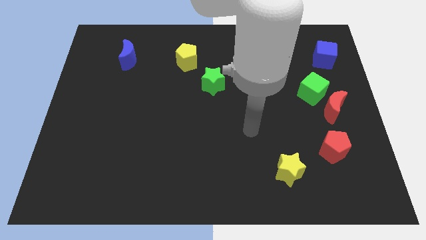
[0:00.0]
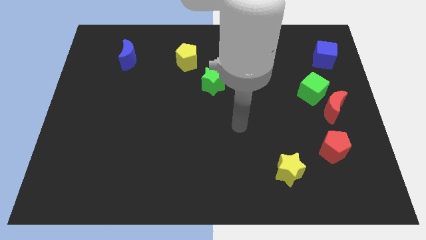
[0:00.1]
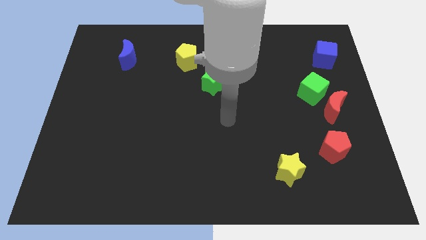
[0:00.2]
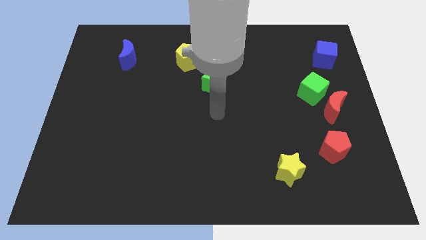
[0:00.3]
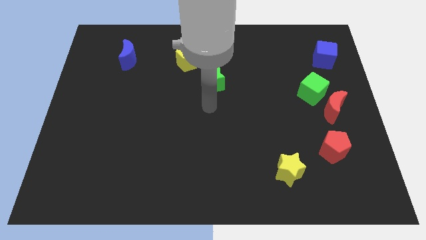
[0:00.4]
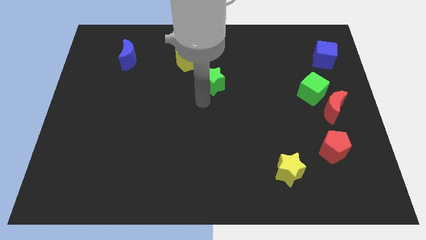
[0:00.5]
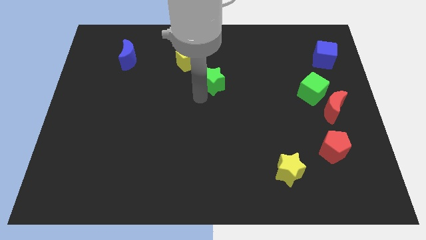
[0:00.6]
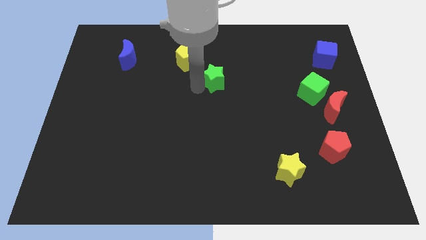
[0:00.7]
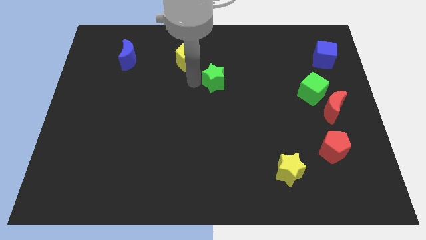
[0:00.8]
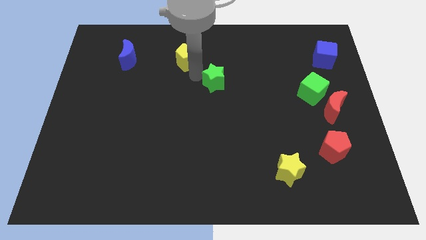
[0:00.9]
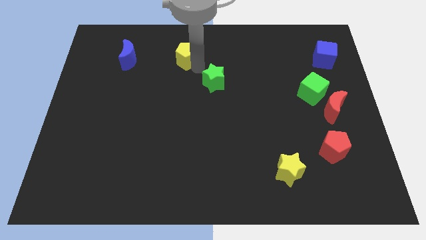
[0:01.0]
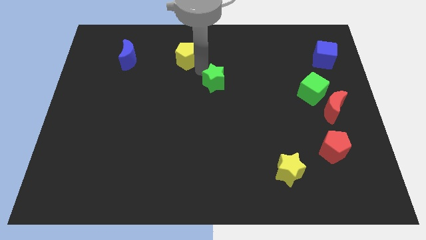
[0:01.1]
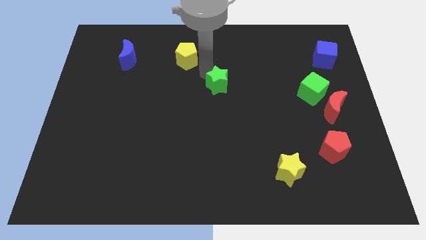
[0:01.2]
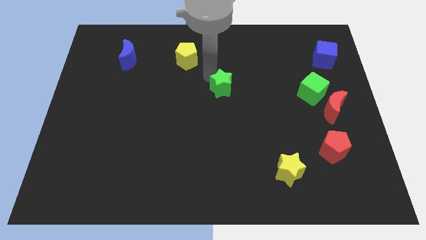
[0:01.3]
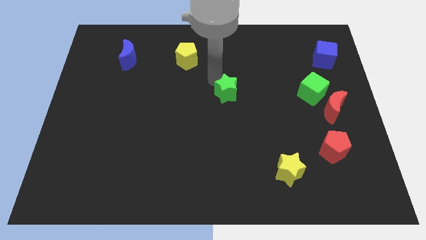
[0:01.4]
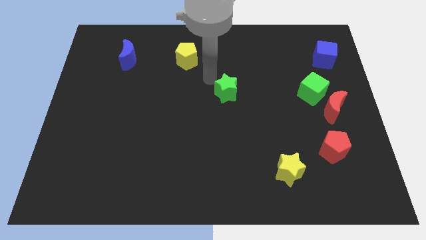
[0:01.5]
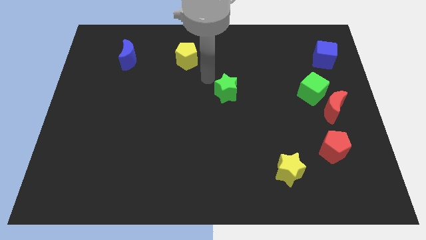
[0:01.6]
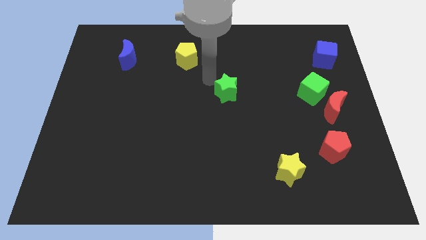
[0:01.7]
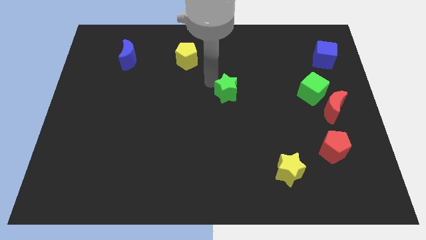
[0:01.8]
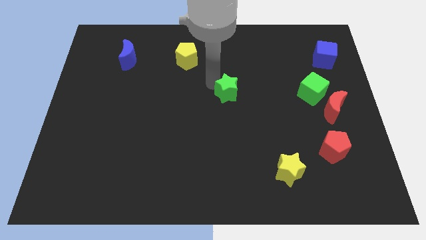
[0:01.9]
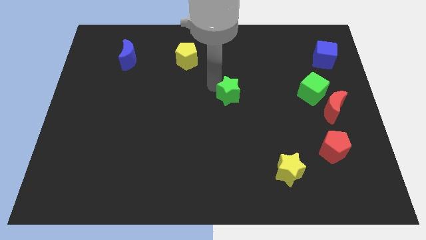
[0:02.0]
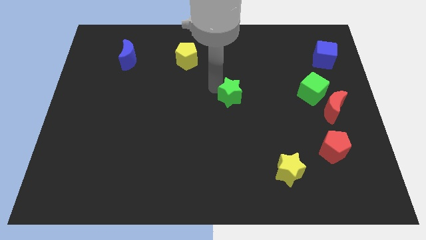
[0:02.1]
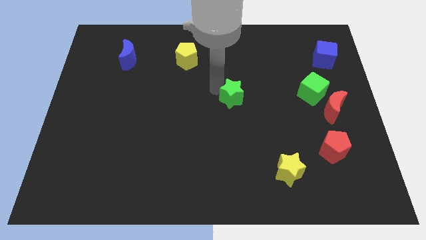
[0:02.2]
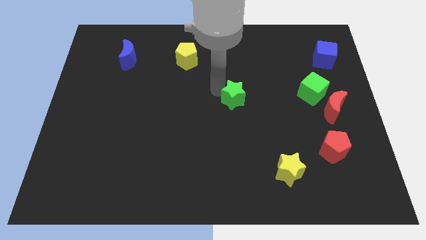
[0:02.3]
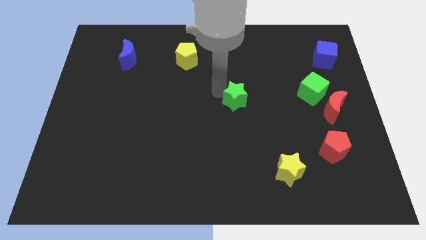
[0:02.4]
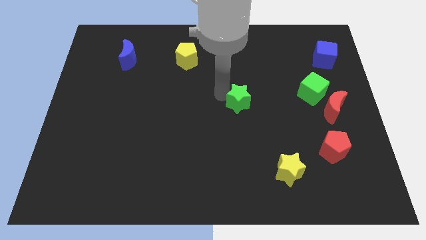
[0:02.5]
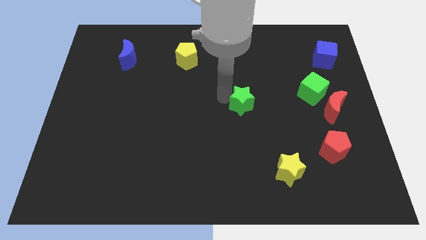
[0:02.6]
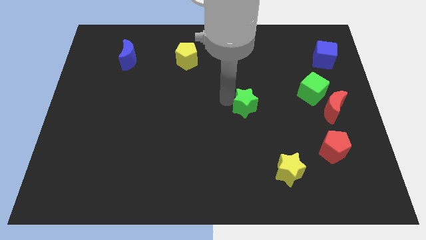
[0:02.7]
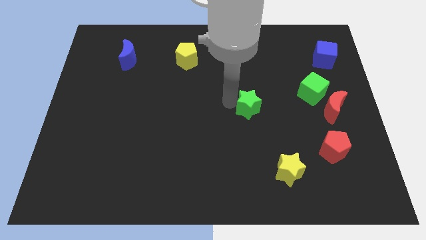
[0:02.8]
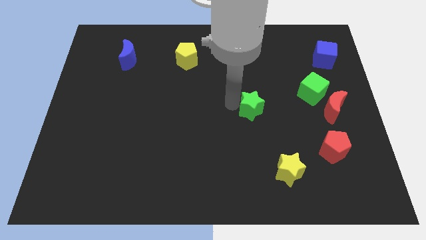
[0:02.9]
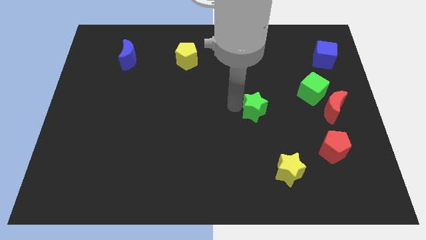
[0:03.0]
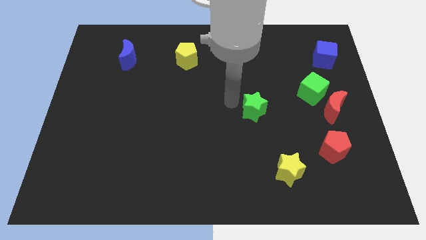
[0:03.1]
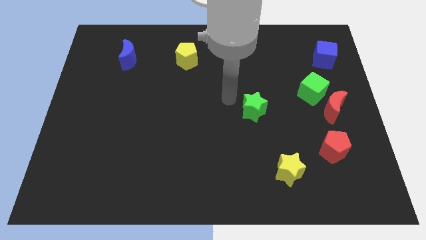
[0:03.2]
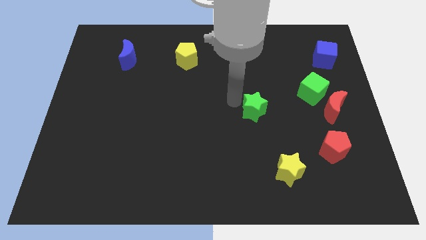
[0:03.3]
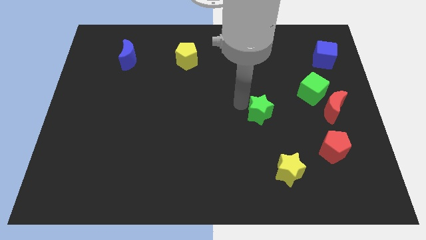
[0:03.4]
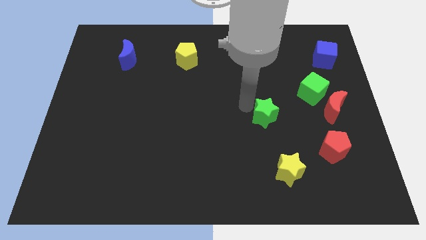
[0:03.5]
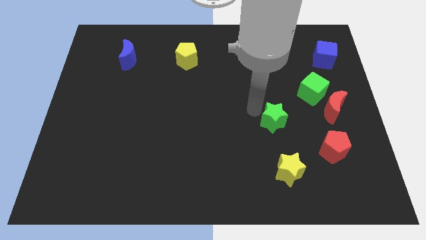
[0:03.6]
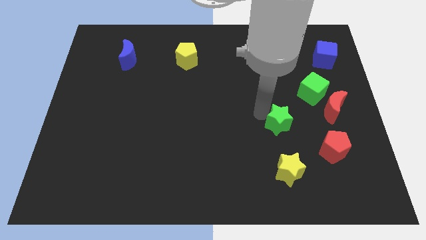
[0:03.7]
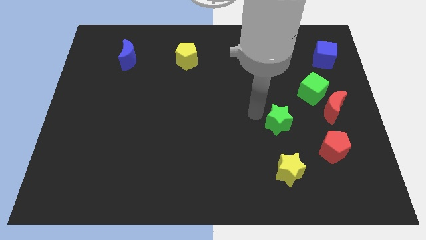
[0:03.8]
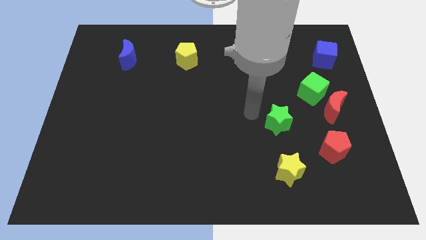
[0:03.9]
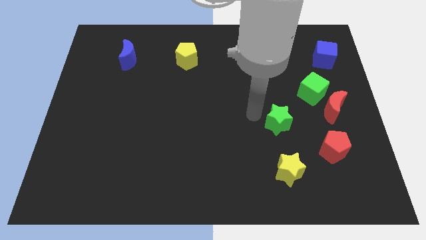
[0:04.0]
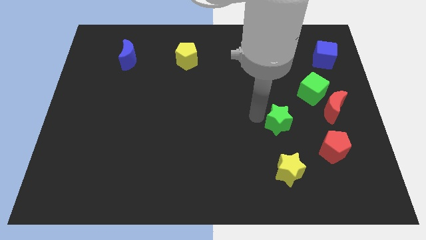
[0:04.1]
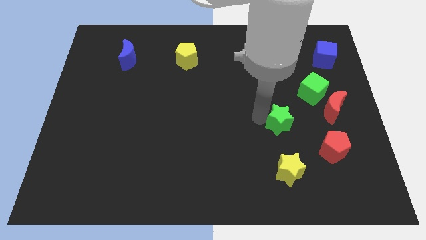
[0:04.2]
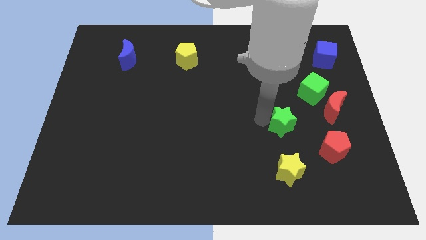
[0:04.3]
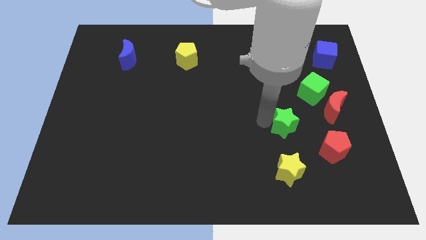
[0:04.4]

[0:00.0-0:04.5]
slide the green star down and right diagonally

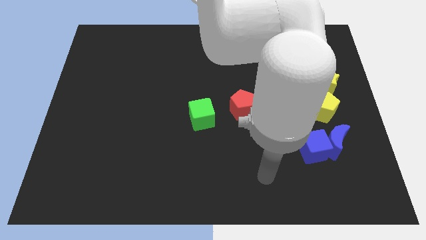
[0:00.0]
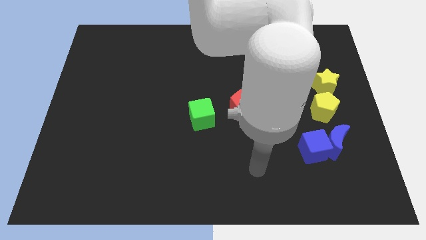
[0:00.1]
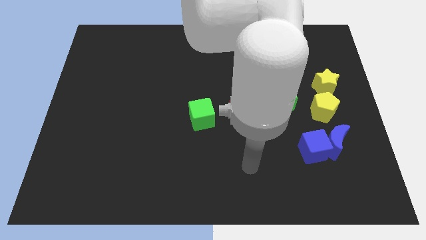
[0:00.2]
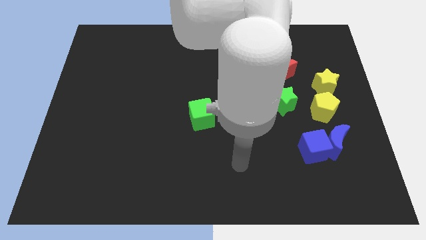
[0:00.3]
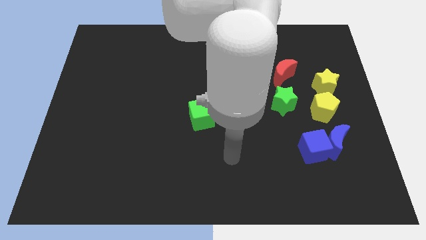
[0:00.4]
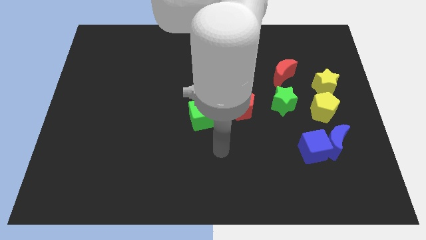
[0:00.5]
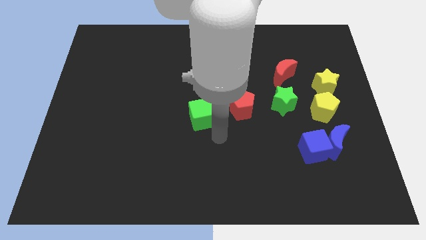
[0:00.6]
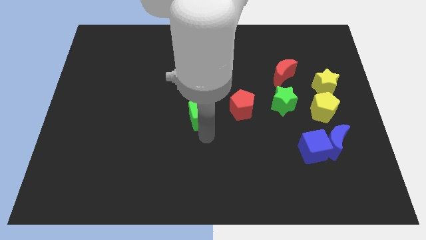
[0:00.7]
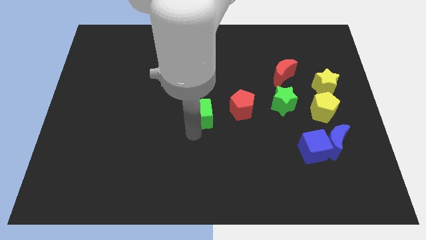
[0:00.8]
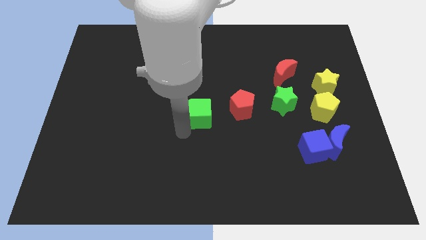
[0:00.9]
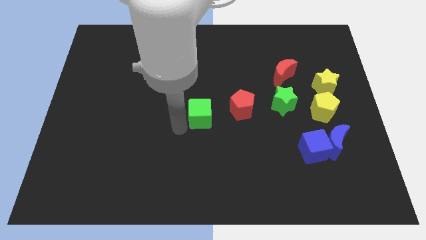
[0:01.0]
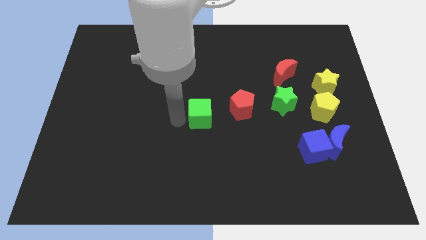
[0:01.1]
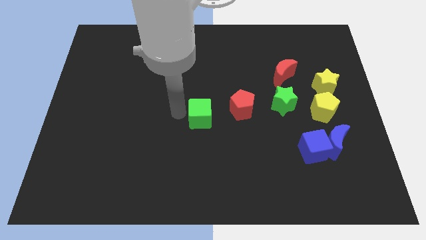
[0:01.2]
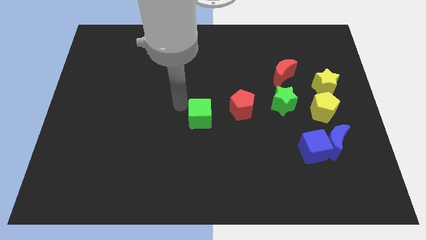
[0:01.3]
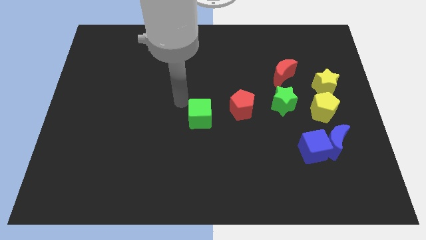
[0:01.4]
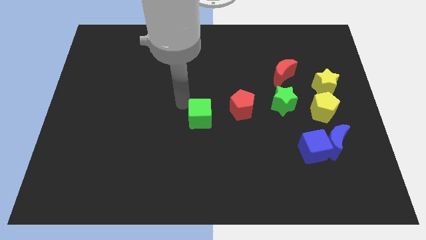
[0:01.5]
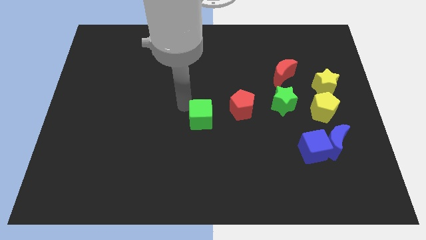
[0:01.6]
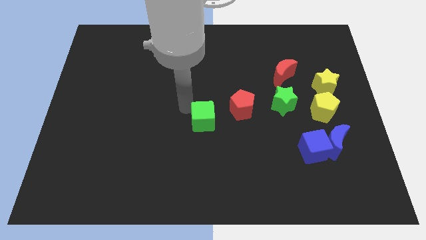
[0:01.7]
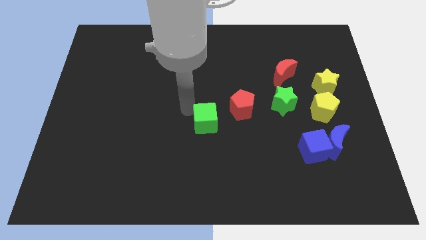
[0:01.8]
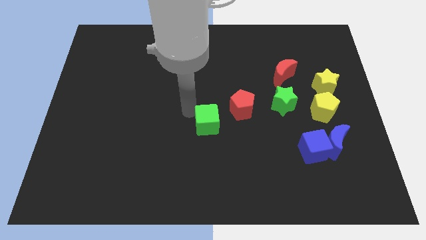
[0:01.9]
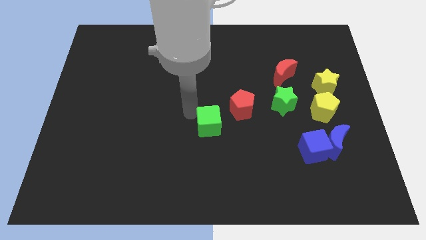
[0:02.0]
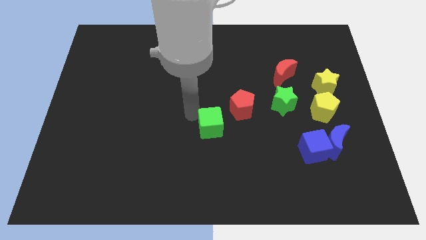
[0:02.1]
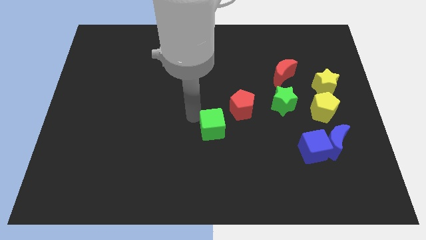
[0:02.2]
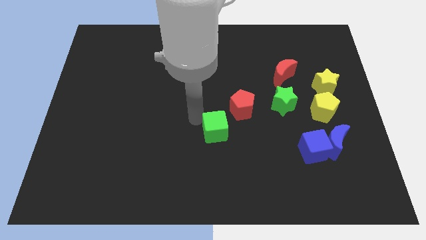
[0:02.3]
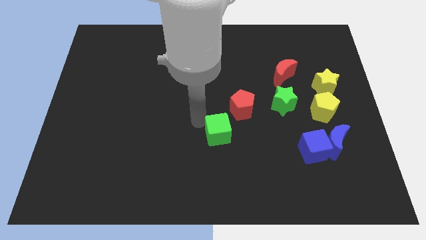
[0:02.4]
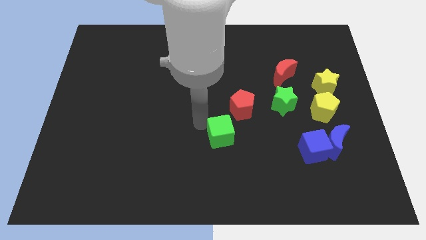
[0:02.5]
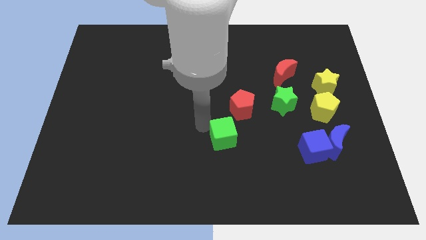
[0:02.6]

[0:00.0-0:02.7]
slide the green cube down and right diagonally a little bit

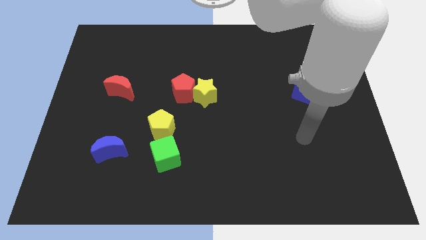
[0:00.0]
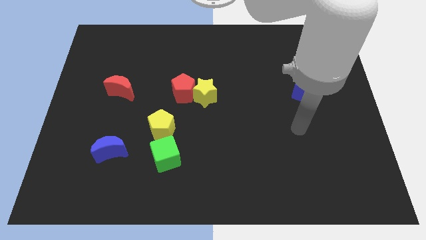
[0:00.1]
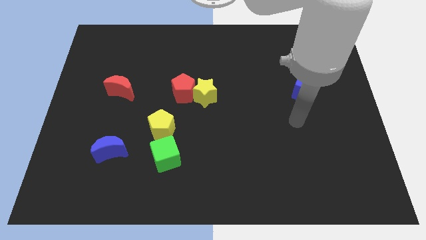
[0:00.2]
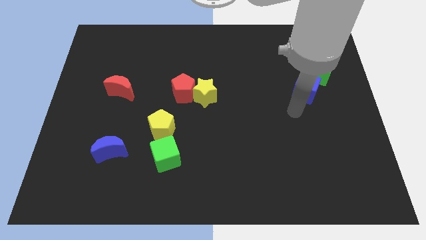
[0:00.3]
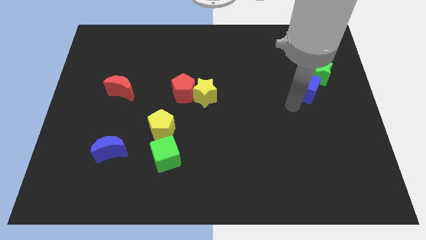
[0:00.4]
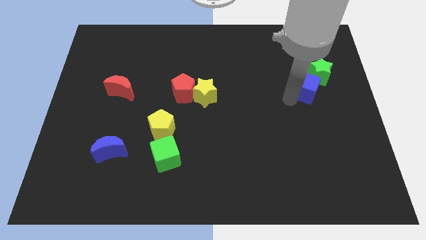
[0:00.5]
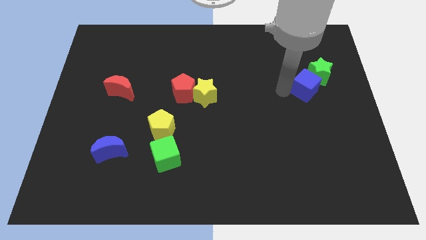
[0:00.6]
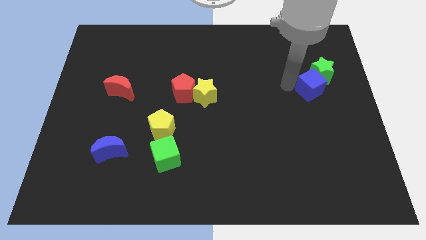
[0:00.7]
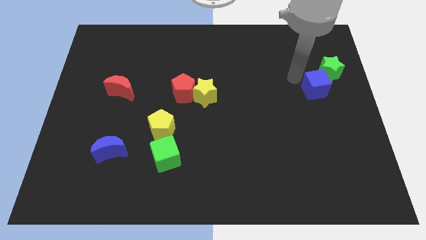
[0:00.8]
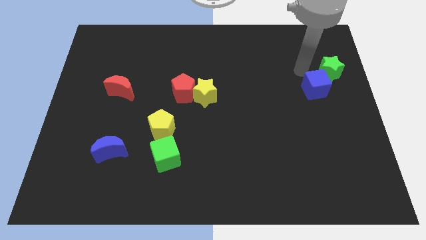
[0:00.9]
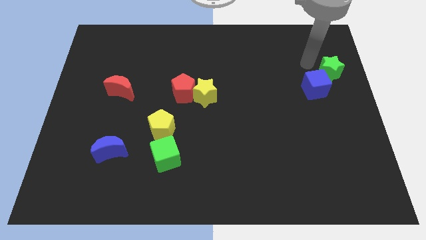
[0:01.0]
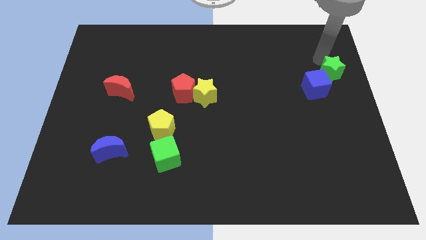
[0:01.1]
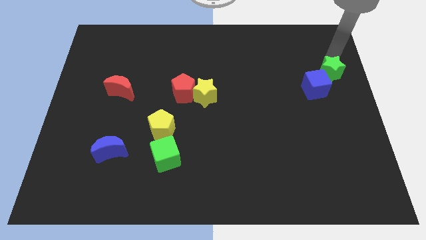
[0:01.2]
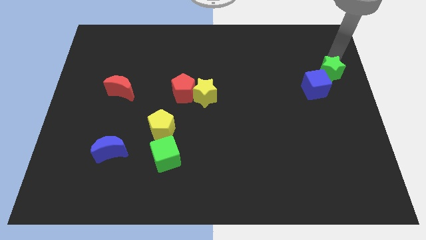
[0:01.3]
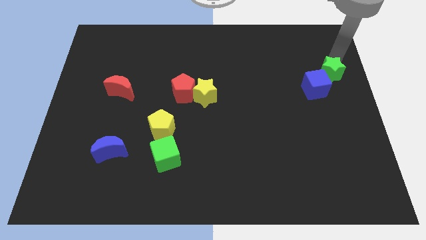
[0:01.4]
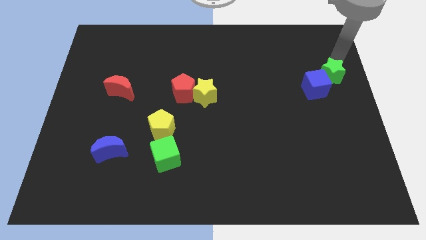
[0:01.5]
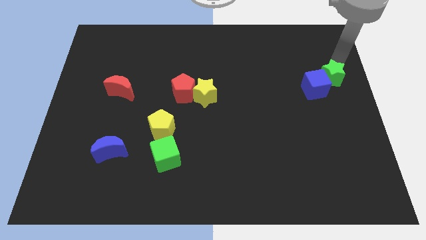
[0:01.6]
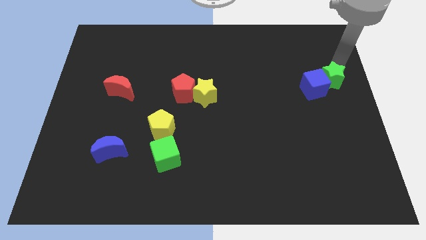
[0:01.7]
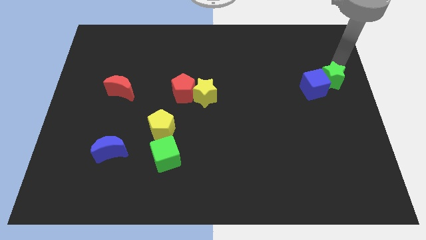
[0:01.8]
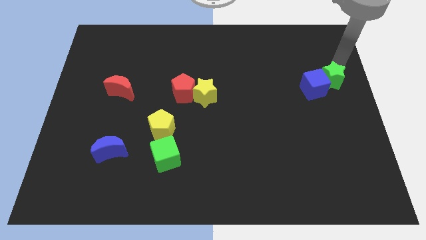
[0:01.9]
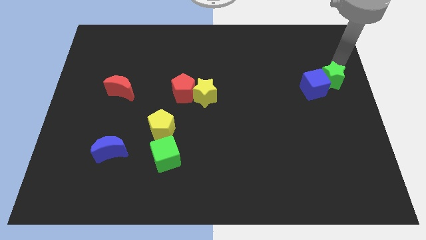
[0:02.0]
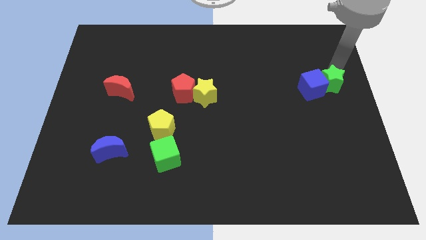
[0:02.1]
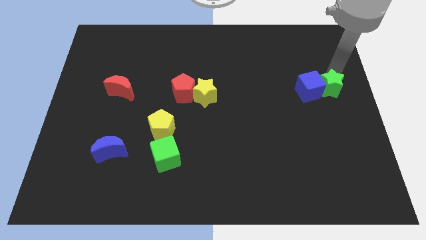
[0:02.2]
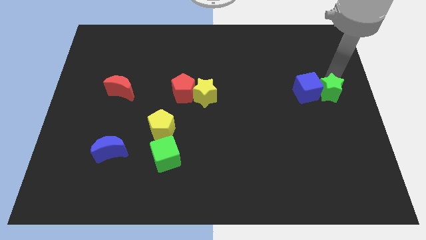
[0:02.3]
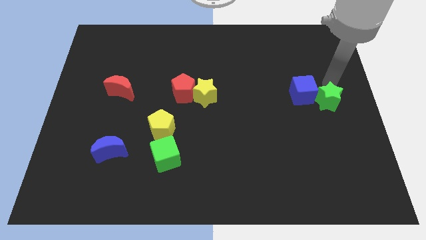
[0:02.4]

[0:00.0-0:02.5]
slide the green star somewhat downwards
